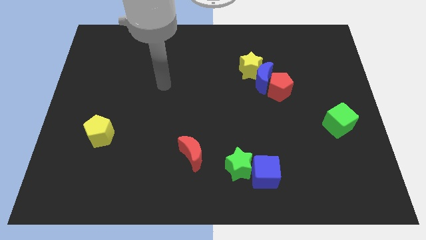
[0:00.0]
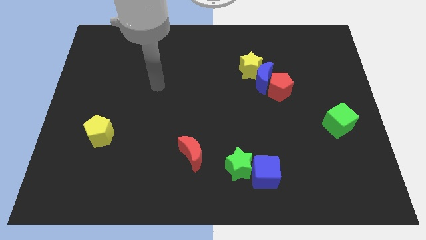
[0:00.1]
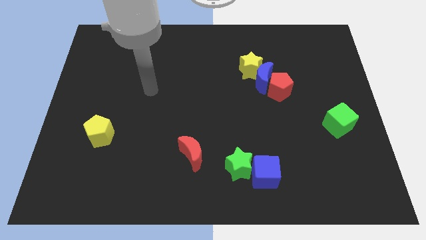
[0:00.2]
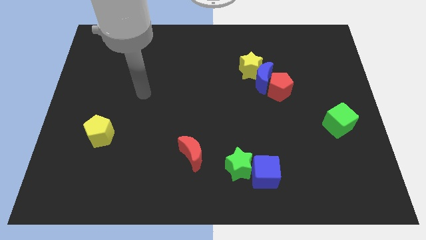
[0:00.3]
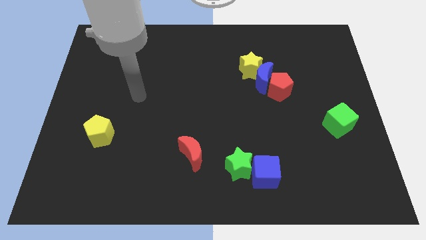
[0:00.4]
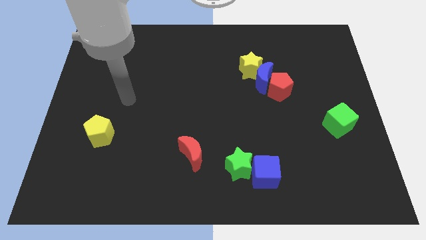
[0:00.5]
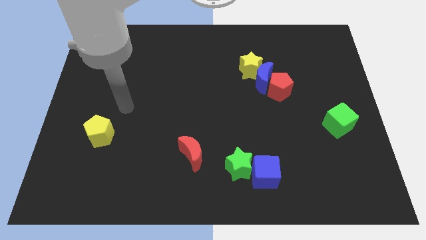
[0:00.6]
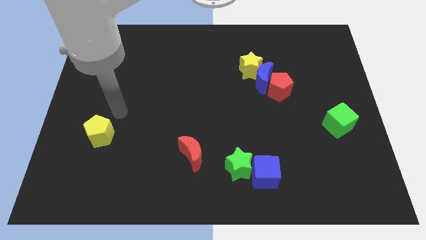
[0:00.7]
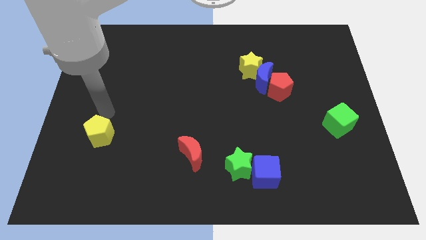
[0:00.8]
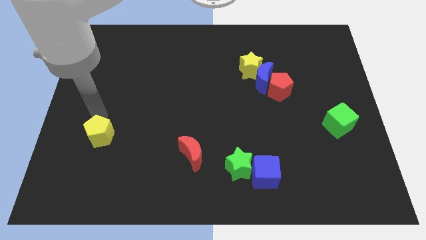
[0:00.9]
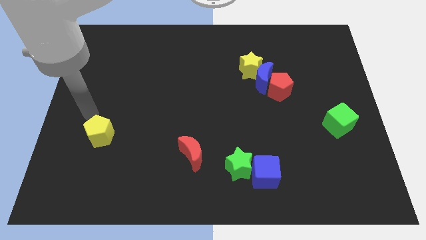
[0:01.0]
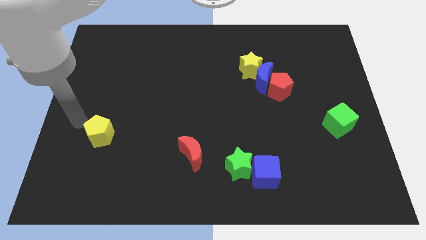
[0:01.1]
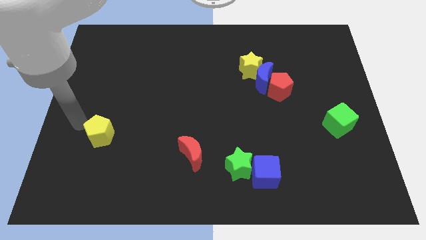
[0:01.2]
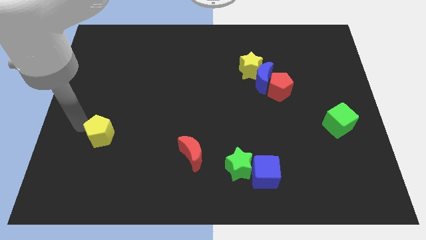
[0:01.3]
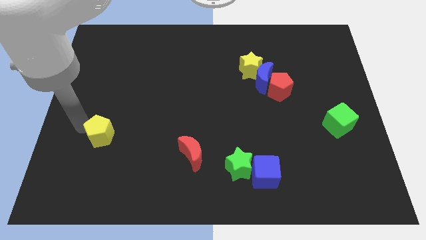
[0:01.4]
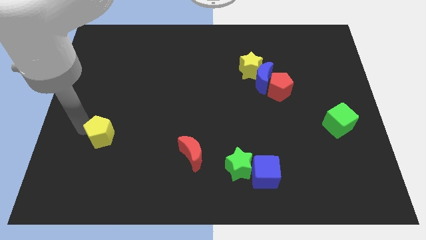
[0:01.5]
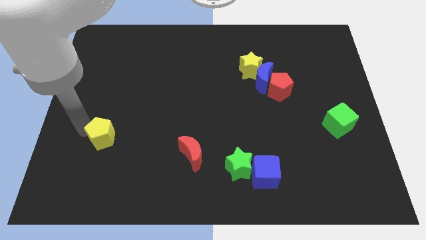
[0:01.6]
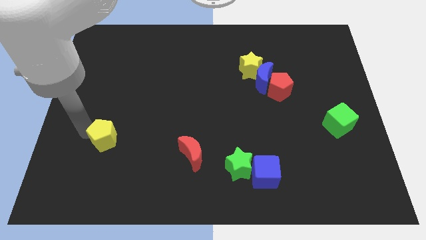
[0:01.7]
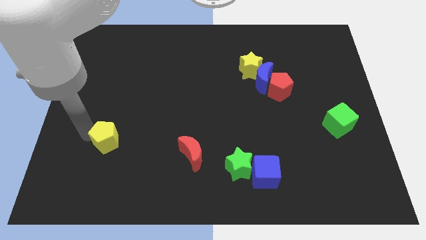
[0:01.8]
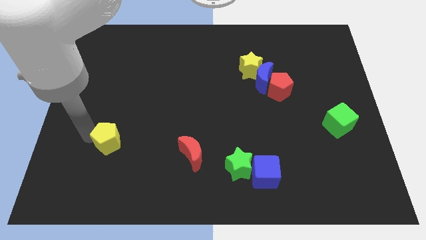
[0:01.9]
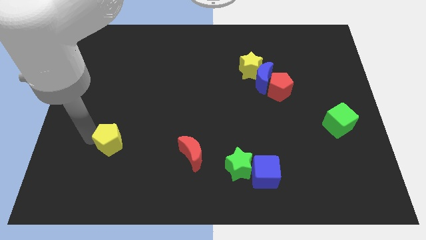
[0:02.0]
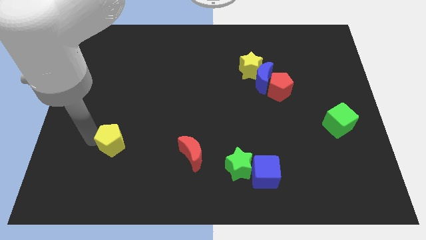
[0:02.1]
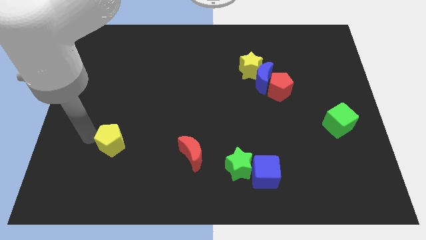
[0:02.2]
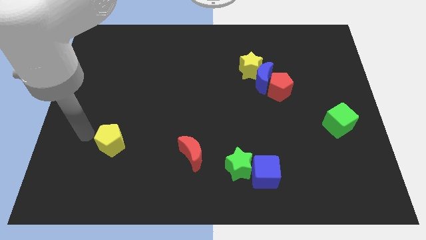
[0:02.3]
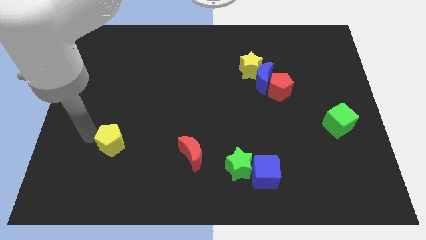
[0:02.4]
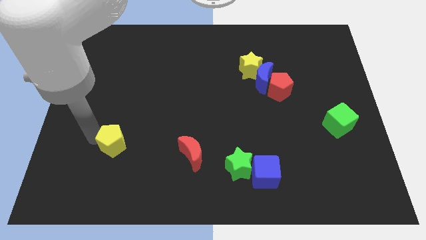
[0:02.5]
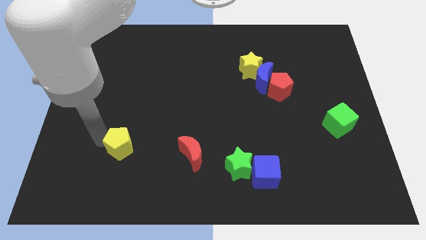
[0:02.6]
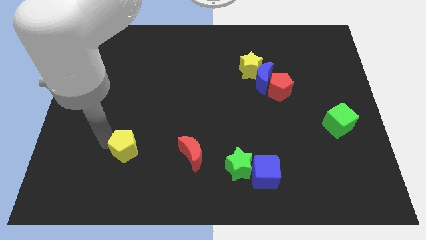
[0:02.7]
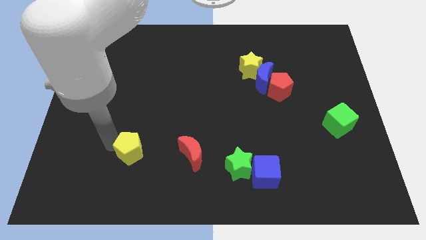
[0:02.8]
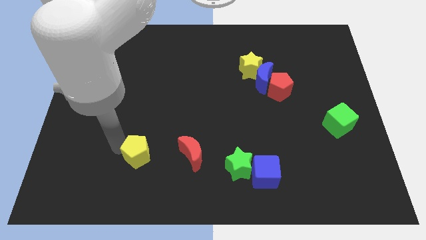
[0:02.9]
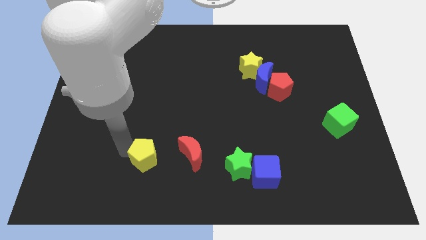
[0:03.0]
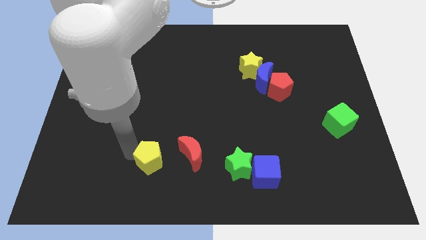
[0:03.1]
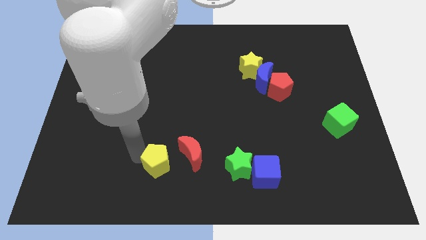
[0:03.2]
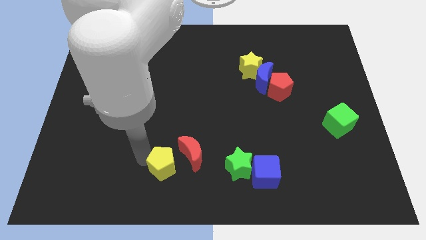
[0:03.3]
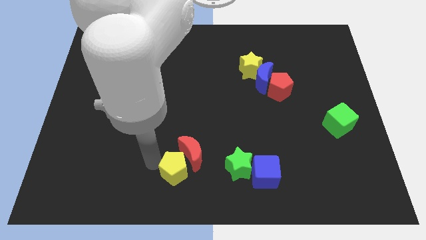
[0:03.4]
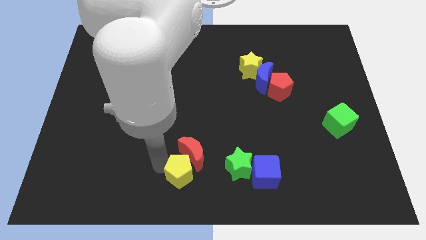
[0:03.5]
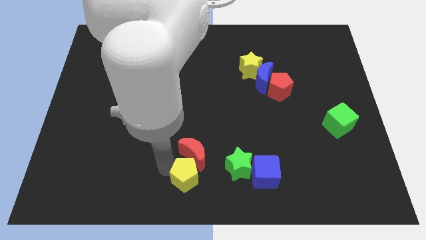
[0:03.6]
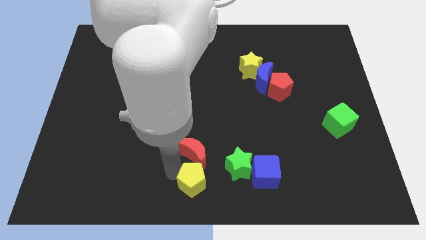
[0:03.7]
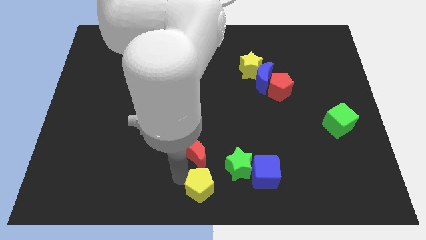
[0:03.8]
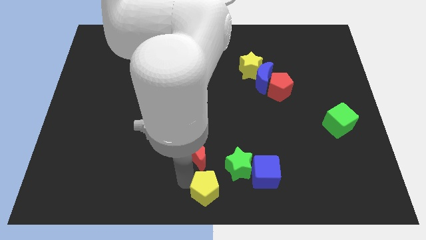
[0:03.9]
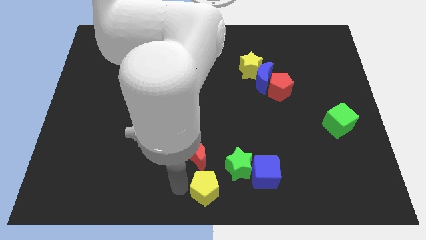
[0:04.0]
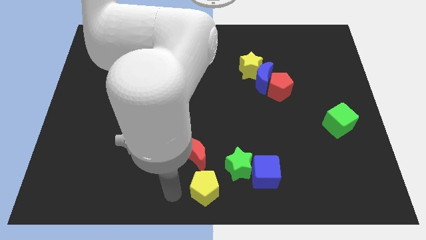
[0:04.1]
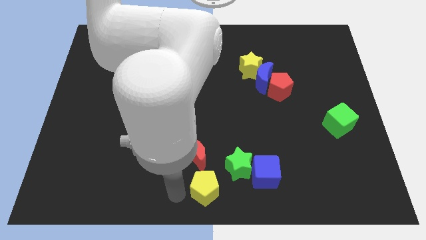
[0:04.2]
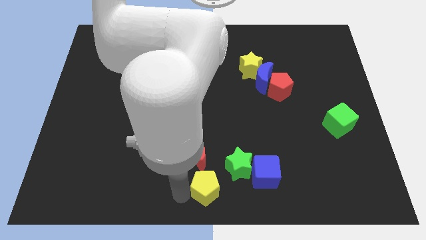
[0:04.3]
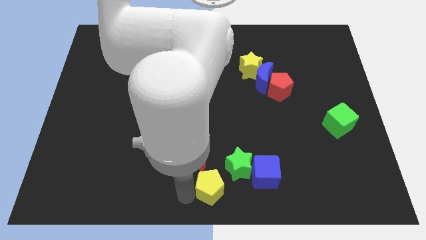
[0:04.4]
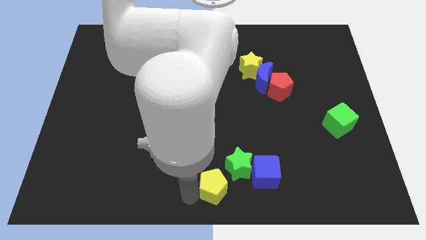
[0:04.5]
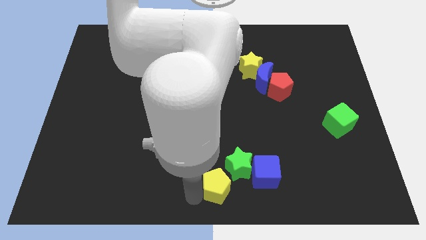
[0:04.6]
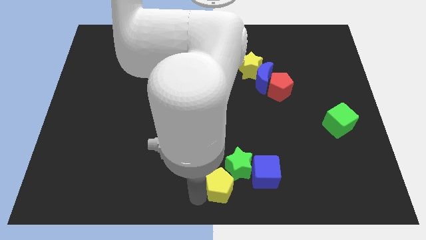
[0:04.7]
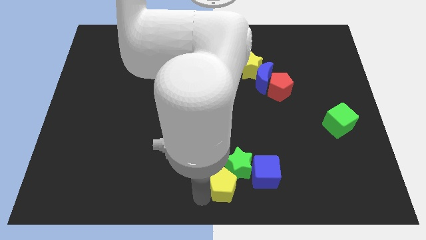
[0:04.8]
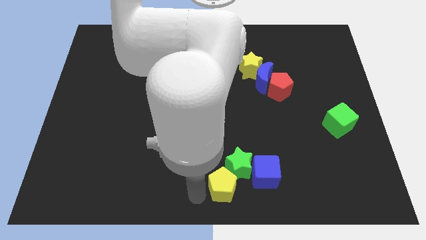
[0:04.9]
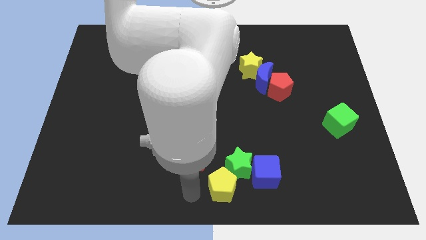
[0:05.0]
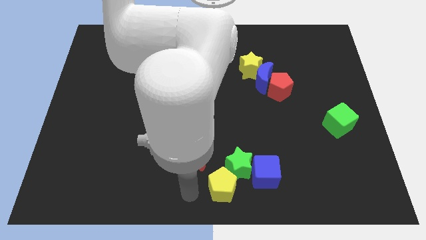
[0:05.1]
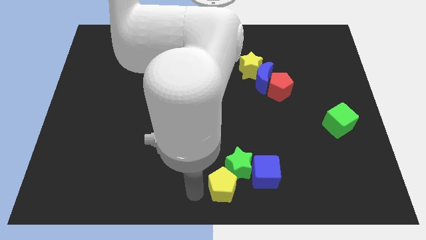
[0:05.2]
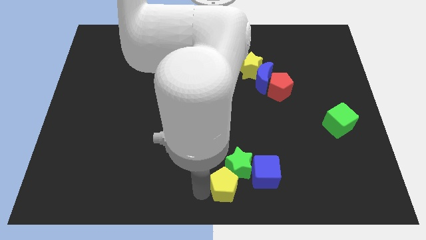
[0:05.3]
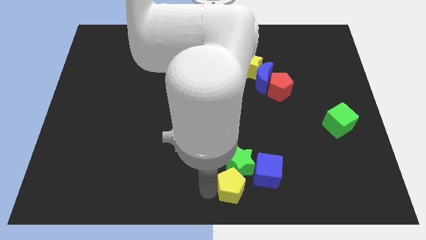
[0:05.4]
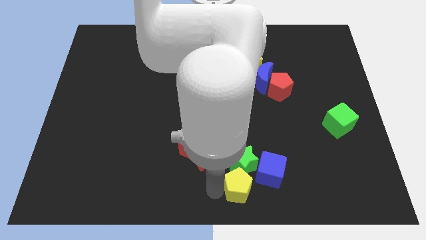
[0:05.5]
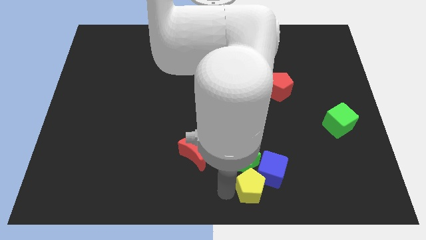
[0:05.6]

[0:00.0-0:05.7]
move the yellow pentagon next to the blue cube

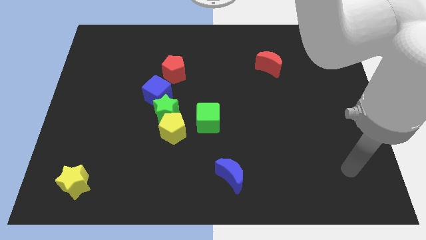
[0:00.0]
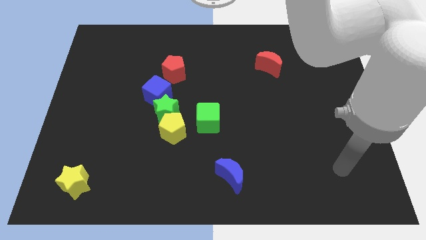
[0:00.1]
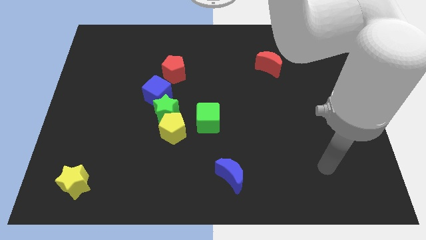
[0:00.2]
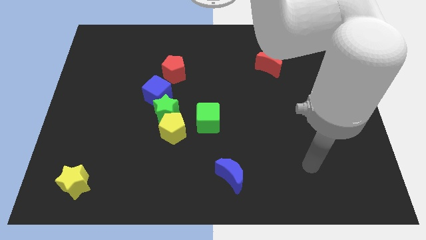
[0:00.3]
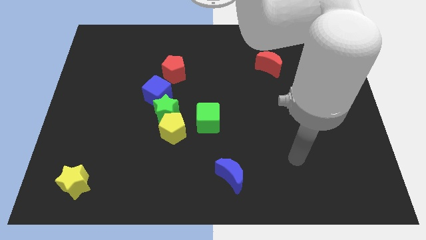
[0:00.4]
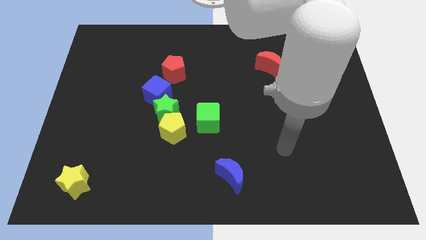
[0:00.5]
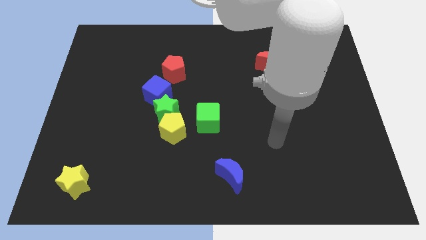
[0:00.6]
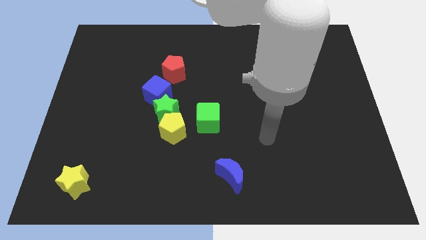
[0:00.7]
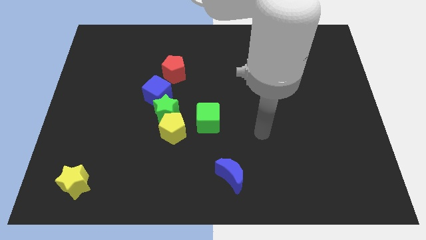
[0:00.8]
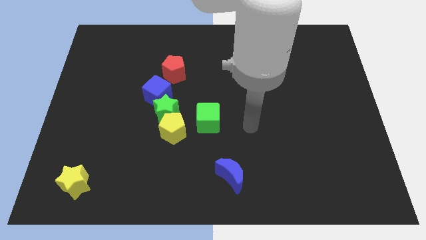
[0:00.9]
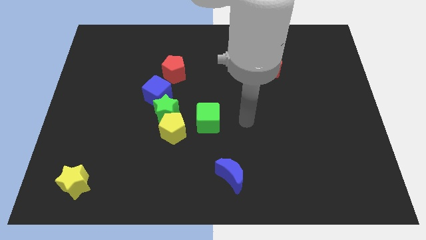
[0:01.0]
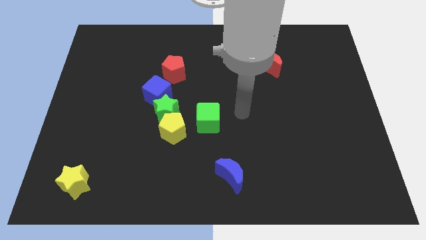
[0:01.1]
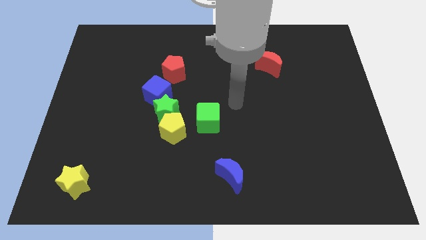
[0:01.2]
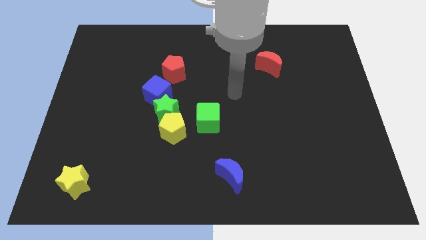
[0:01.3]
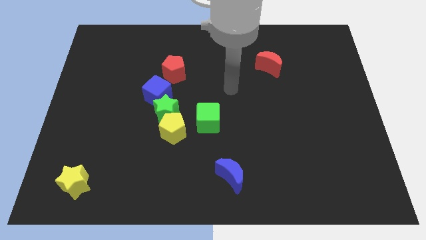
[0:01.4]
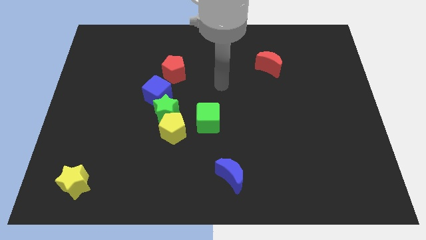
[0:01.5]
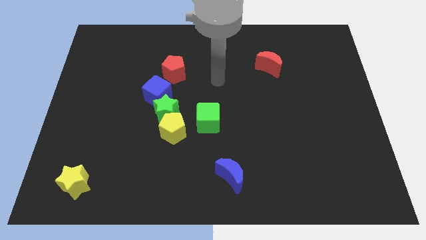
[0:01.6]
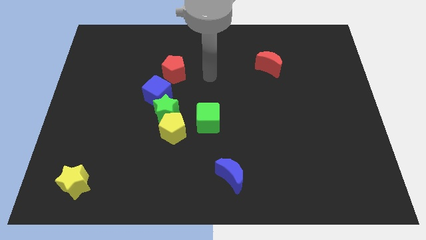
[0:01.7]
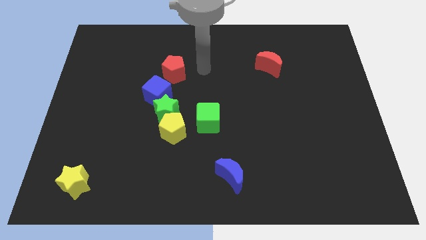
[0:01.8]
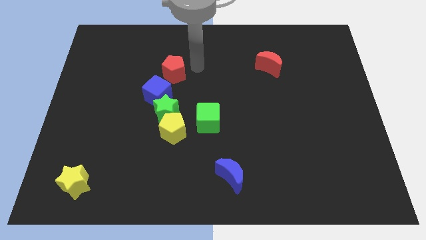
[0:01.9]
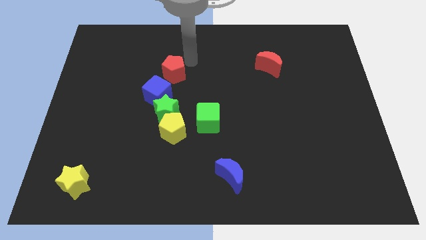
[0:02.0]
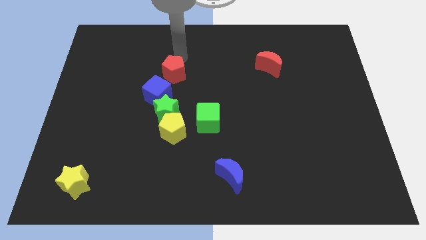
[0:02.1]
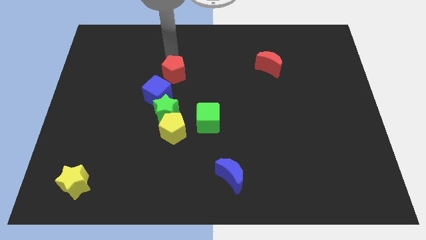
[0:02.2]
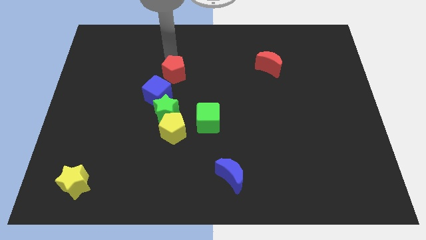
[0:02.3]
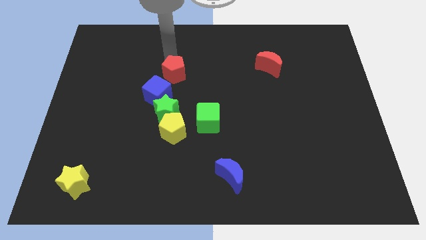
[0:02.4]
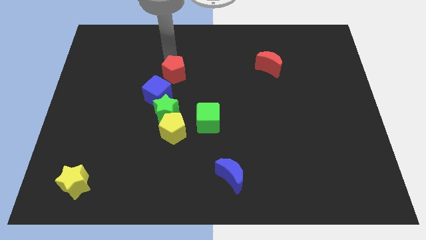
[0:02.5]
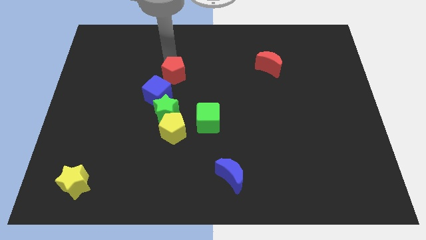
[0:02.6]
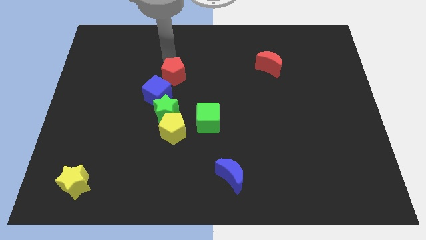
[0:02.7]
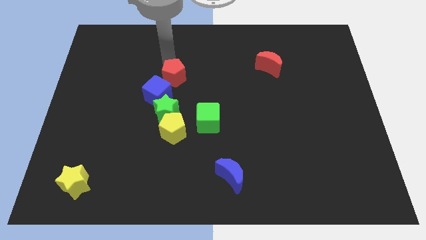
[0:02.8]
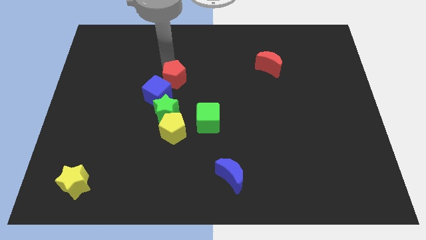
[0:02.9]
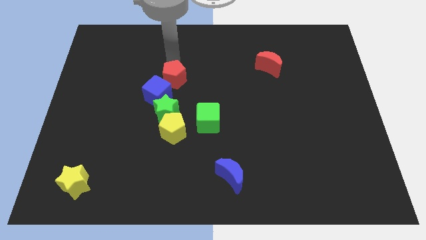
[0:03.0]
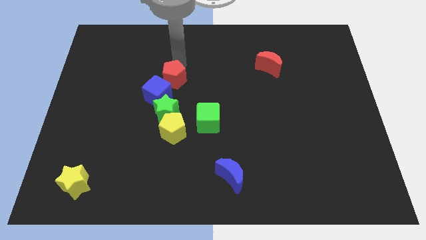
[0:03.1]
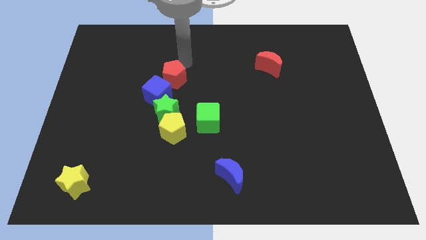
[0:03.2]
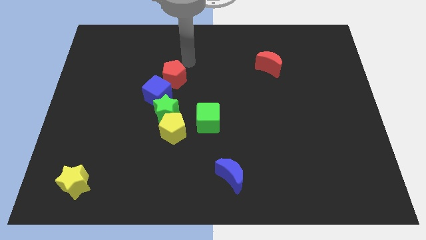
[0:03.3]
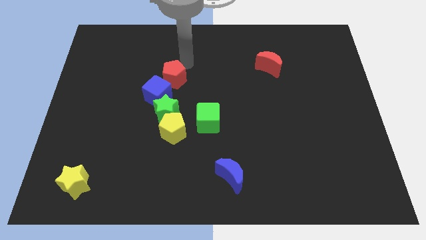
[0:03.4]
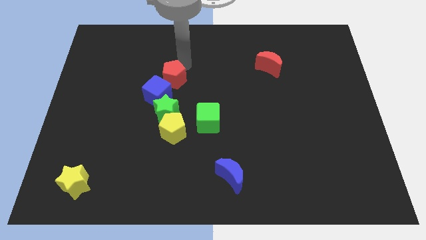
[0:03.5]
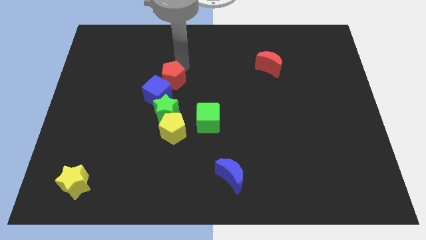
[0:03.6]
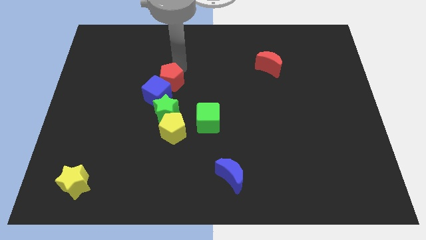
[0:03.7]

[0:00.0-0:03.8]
slide the red pentagon towards the blue cube
